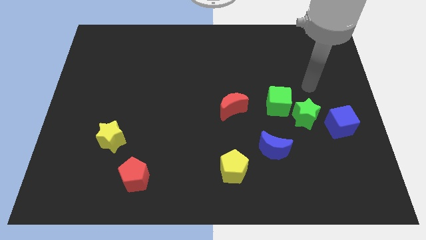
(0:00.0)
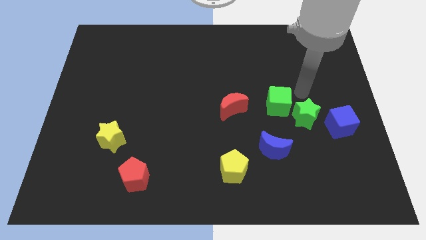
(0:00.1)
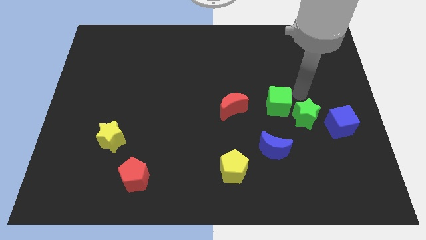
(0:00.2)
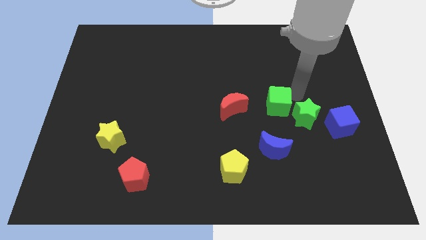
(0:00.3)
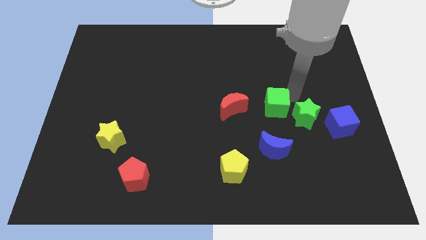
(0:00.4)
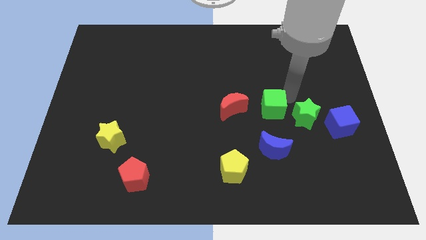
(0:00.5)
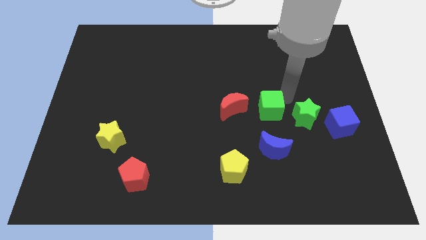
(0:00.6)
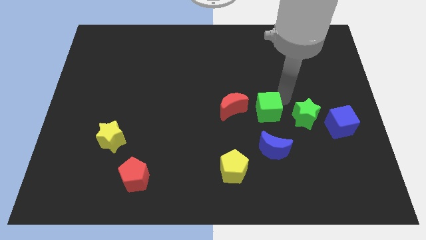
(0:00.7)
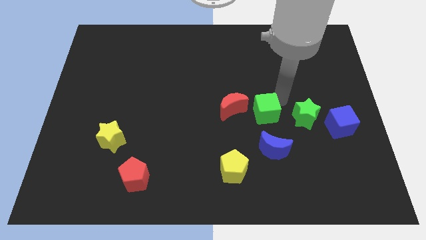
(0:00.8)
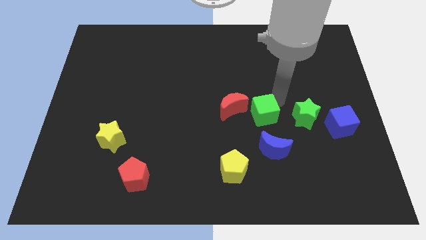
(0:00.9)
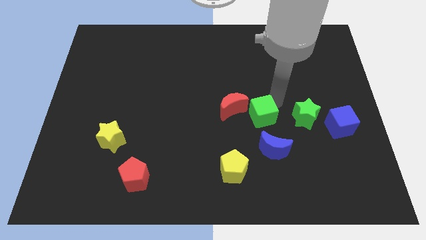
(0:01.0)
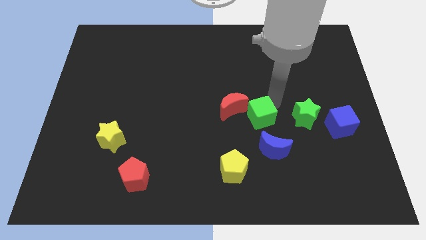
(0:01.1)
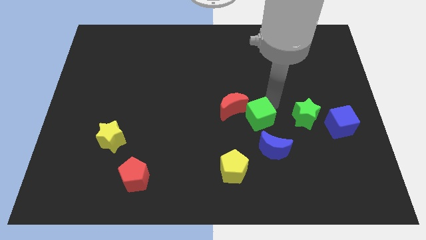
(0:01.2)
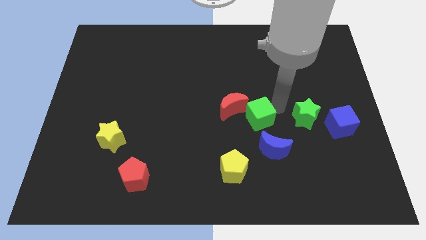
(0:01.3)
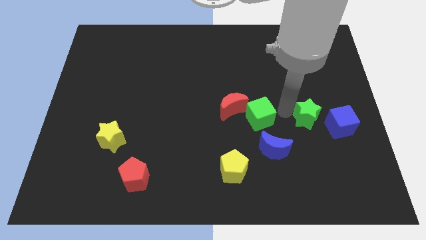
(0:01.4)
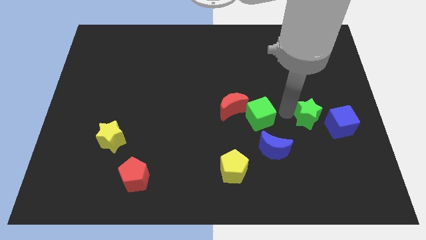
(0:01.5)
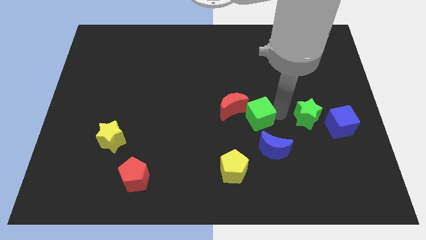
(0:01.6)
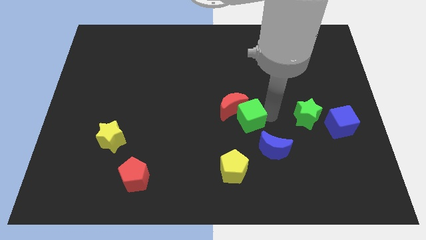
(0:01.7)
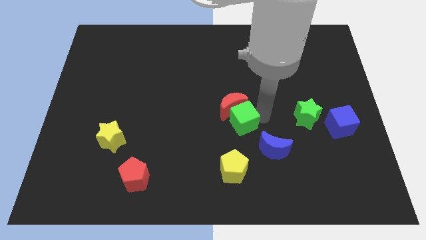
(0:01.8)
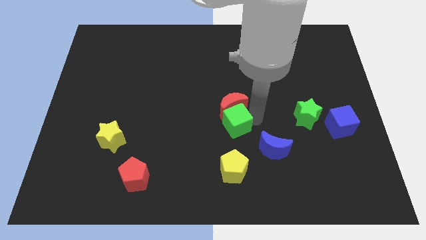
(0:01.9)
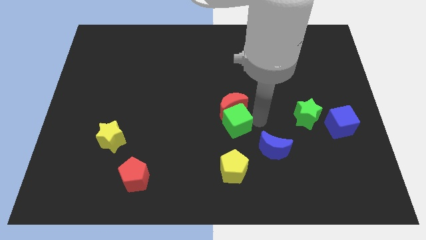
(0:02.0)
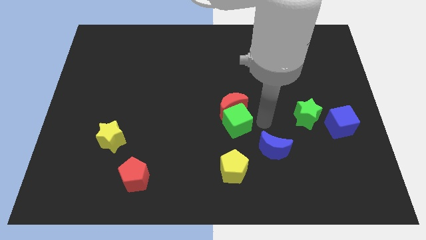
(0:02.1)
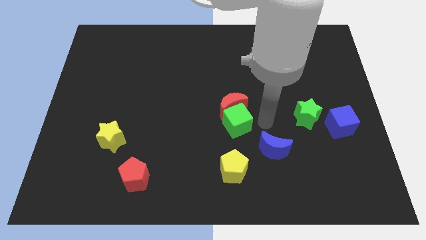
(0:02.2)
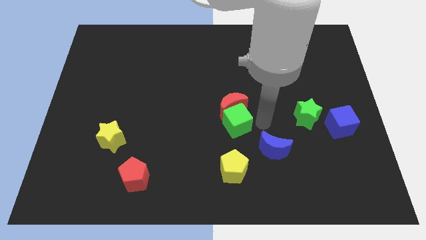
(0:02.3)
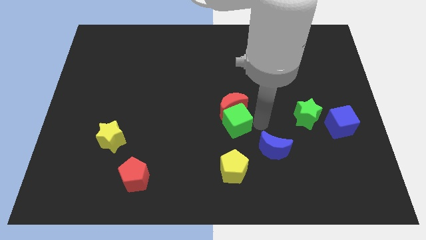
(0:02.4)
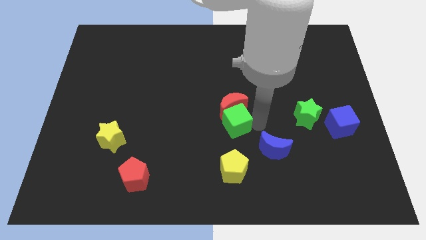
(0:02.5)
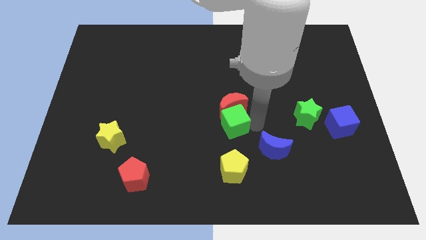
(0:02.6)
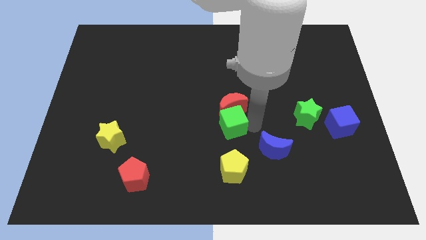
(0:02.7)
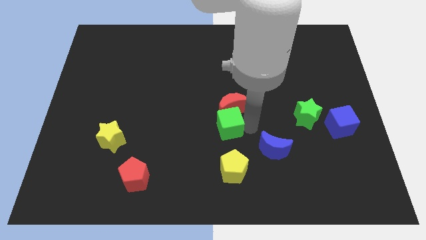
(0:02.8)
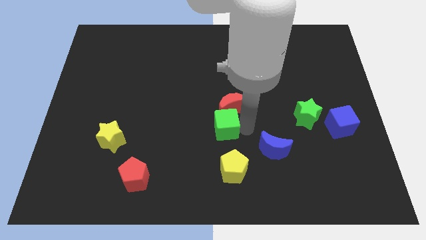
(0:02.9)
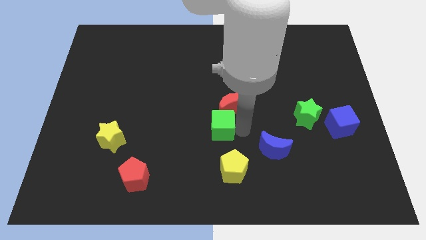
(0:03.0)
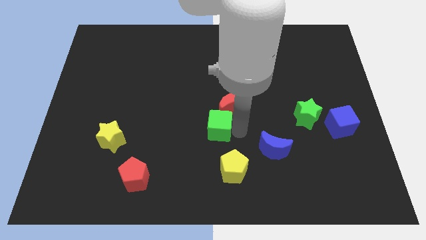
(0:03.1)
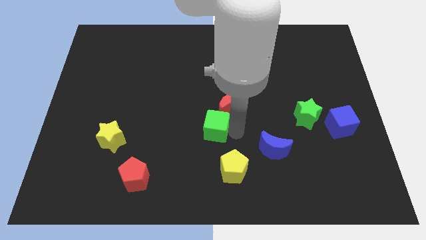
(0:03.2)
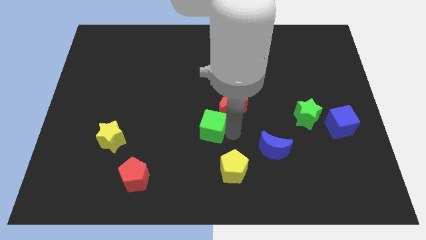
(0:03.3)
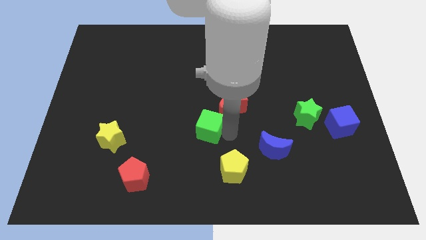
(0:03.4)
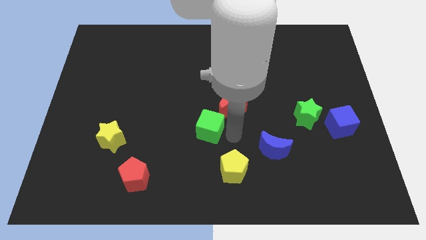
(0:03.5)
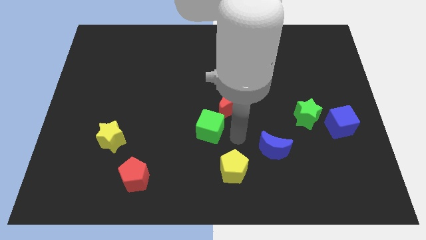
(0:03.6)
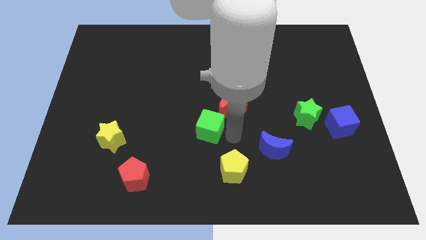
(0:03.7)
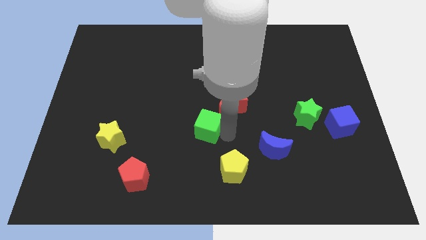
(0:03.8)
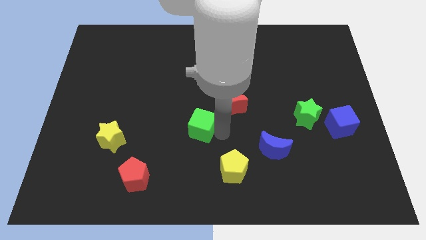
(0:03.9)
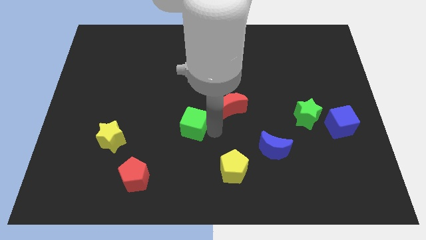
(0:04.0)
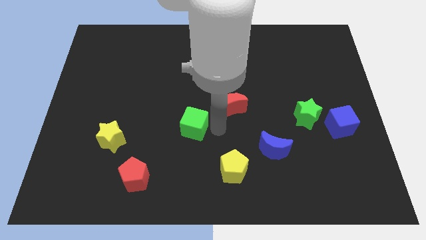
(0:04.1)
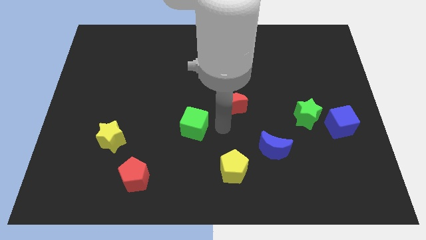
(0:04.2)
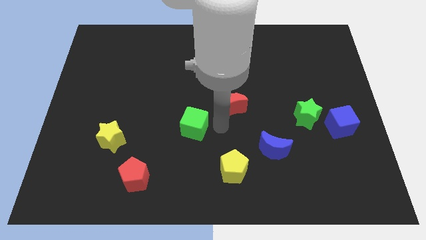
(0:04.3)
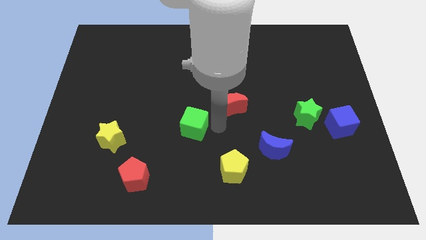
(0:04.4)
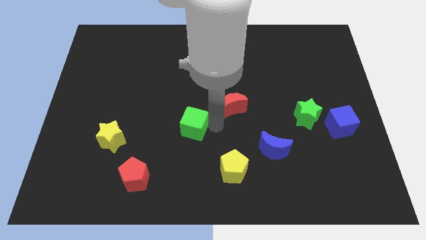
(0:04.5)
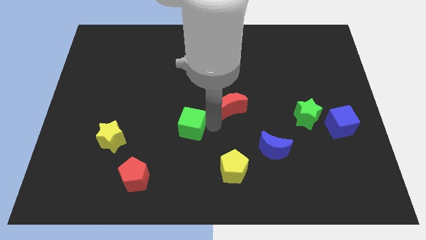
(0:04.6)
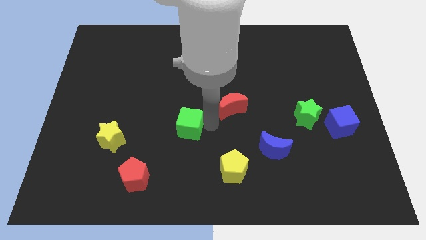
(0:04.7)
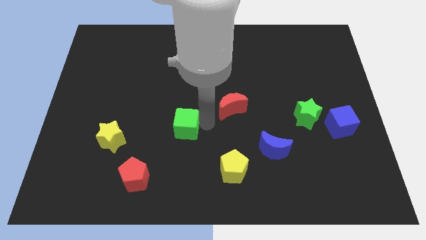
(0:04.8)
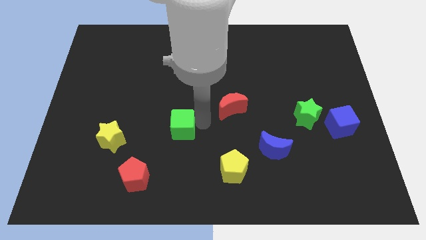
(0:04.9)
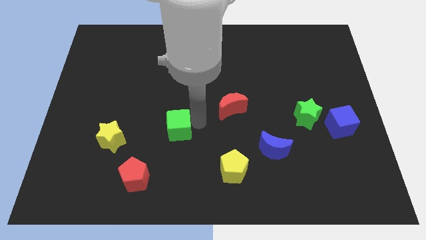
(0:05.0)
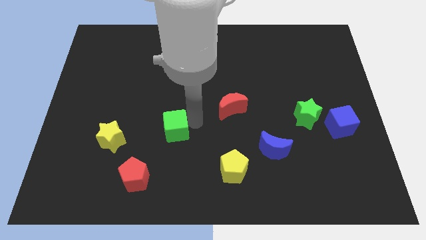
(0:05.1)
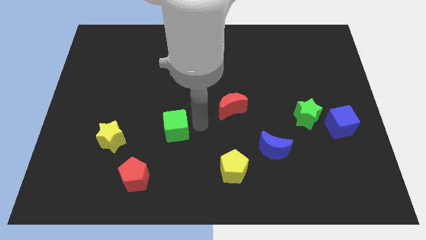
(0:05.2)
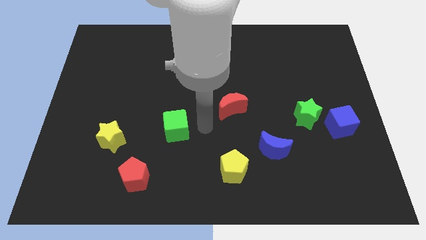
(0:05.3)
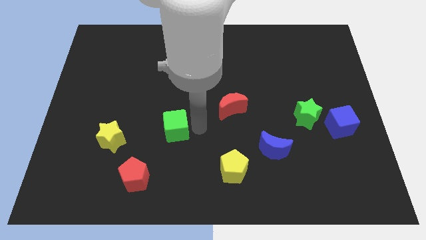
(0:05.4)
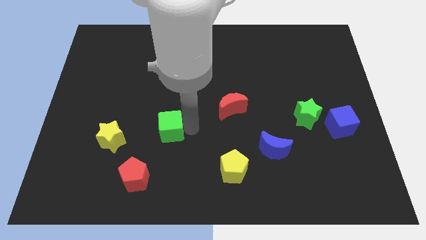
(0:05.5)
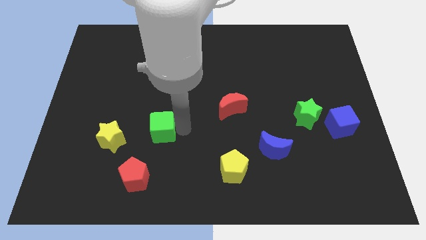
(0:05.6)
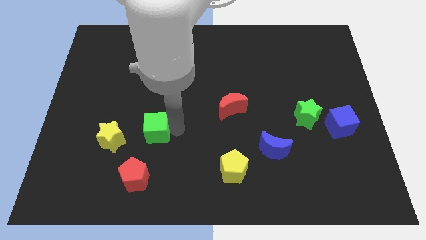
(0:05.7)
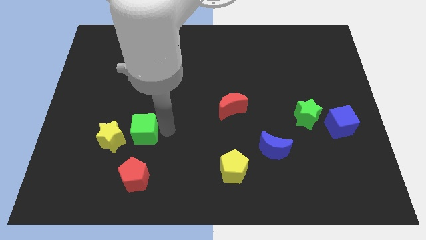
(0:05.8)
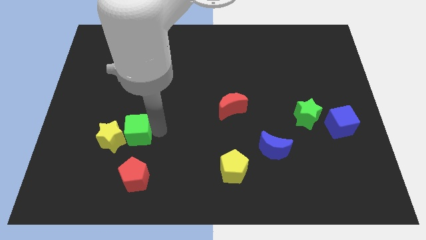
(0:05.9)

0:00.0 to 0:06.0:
move the green cube to the yellow star

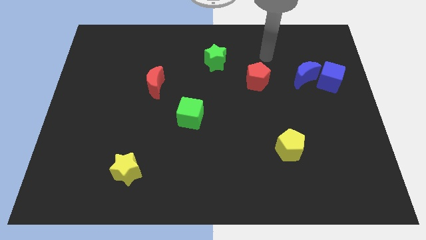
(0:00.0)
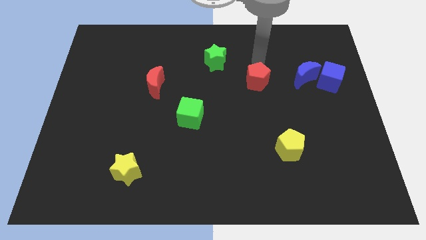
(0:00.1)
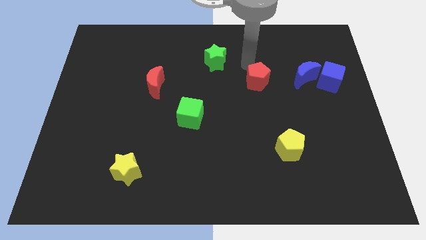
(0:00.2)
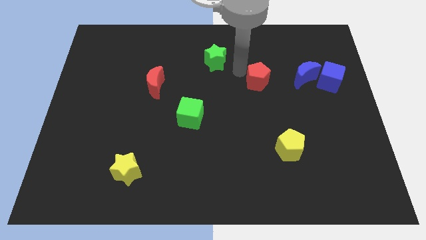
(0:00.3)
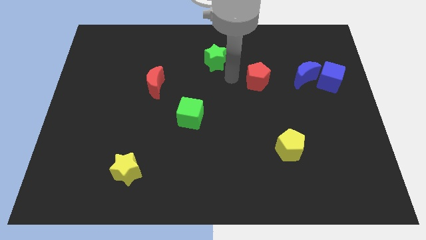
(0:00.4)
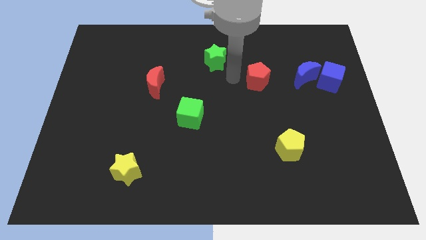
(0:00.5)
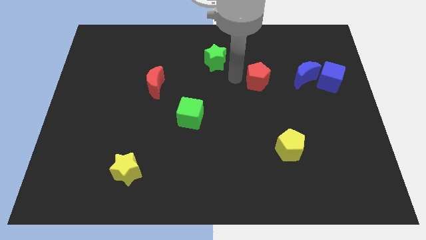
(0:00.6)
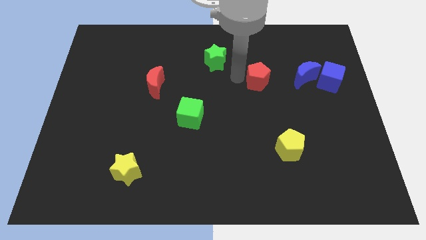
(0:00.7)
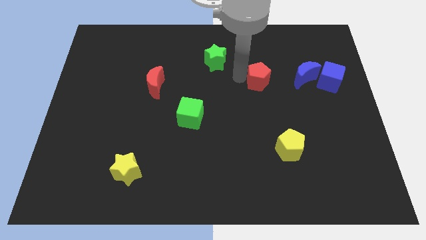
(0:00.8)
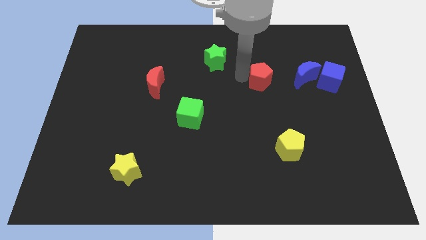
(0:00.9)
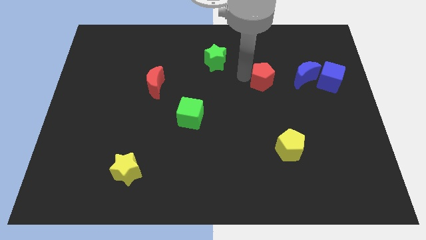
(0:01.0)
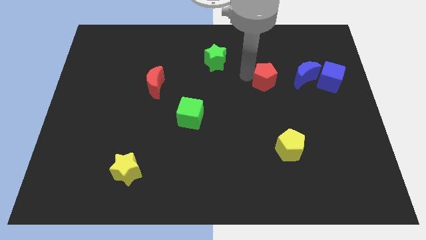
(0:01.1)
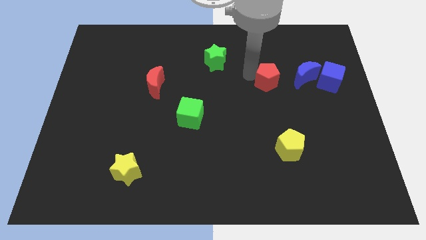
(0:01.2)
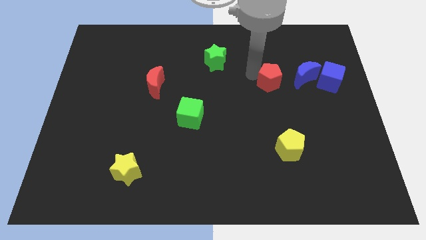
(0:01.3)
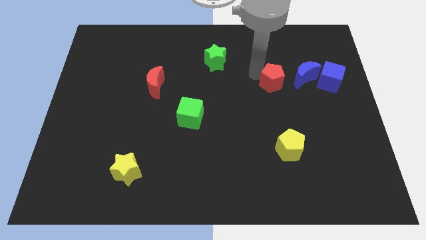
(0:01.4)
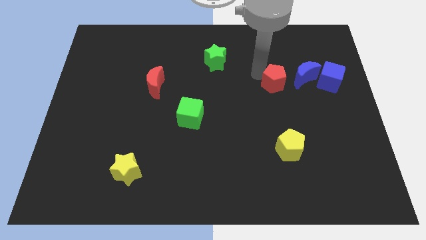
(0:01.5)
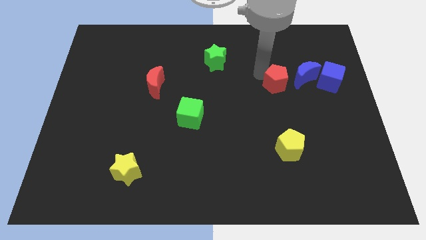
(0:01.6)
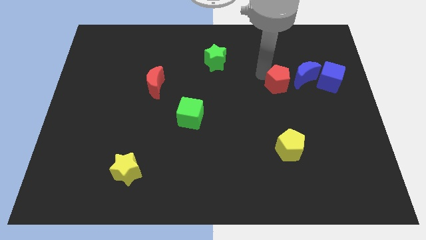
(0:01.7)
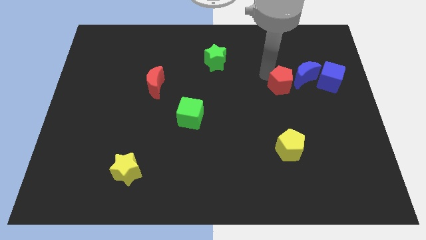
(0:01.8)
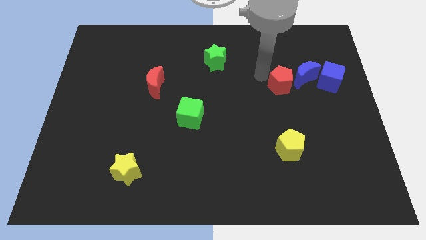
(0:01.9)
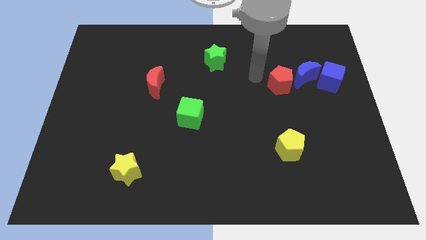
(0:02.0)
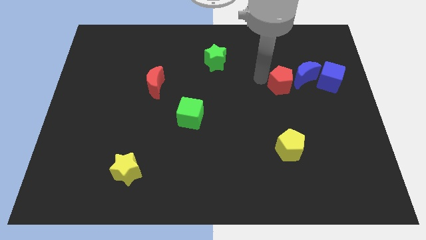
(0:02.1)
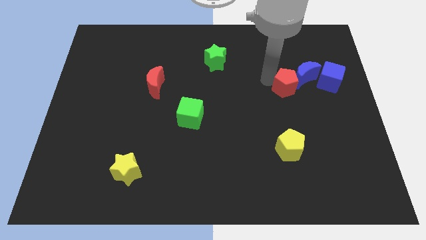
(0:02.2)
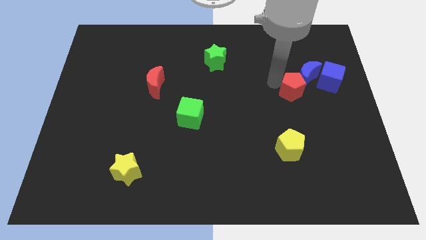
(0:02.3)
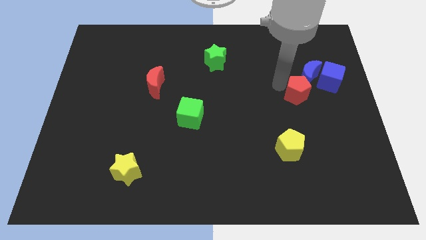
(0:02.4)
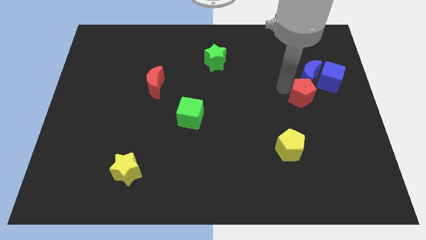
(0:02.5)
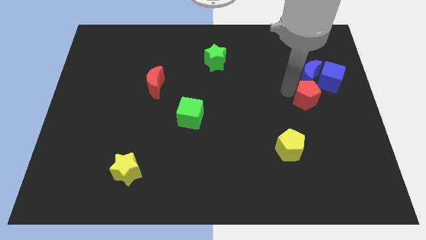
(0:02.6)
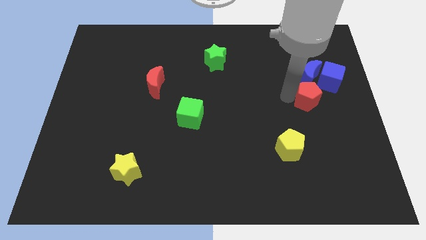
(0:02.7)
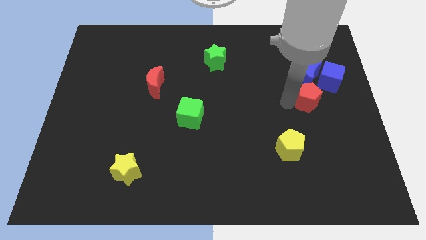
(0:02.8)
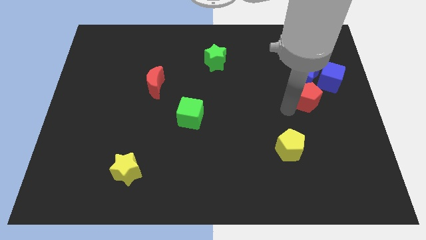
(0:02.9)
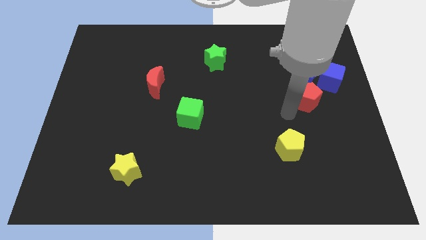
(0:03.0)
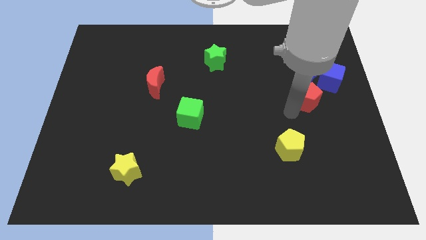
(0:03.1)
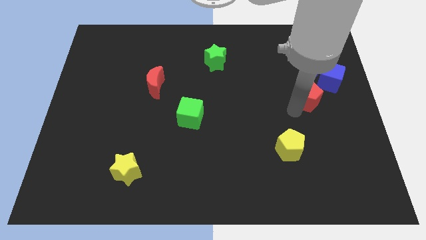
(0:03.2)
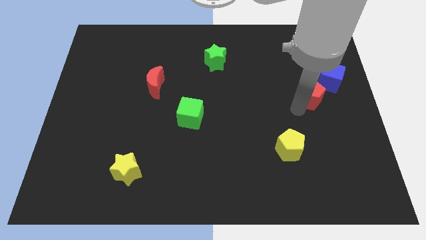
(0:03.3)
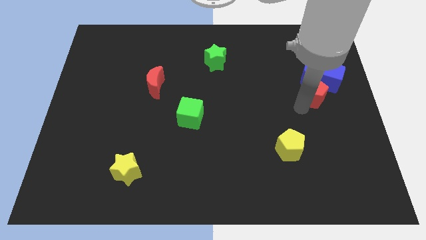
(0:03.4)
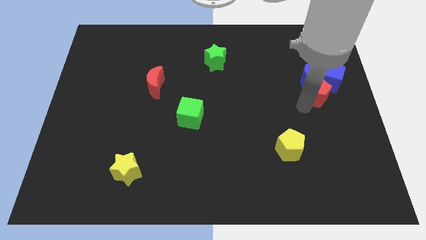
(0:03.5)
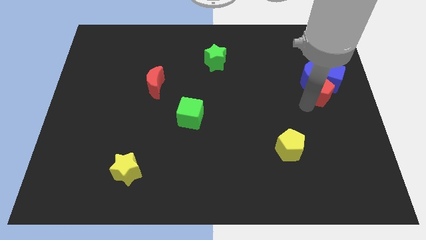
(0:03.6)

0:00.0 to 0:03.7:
put the red pentagon to the blue cube
